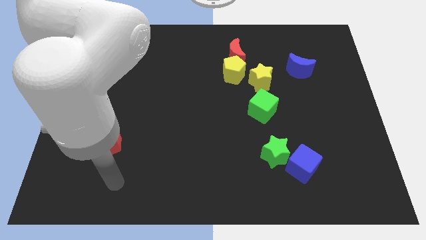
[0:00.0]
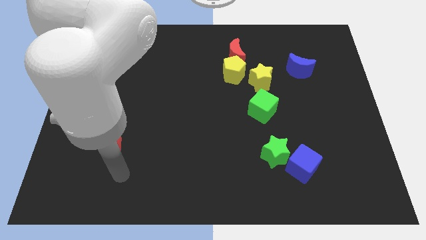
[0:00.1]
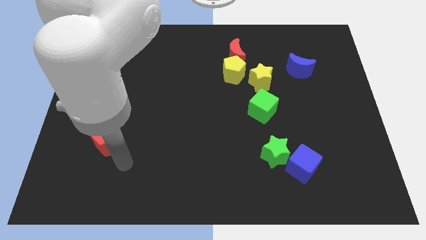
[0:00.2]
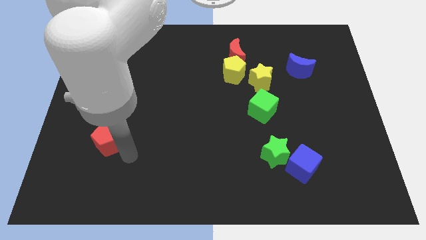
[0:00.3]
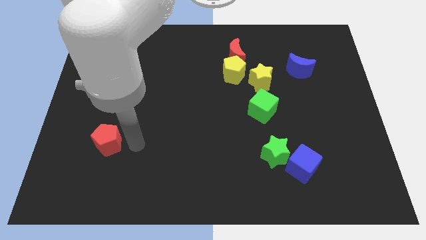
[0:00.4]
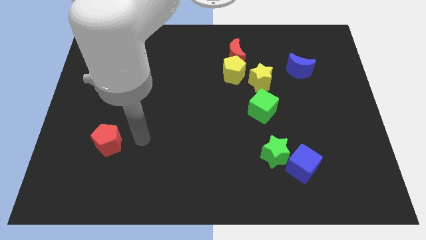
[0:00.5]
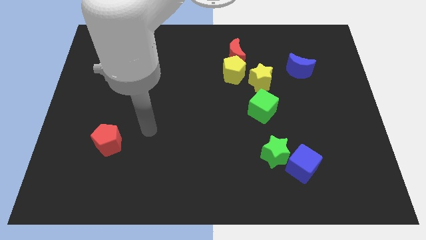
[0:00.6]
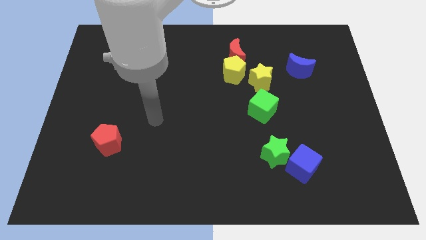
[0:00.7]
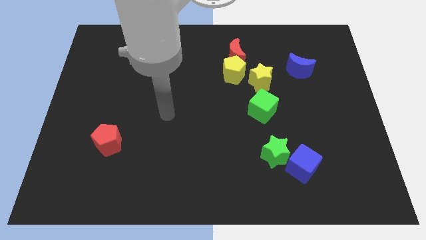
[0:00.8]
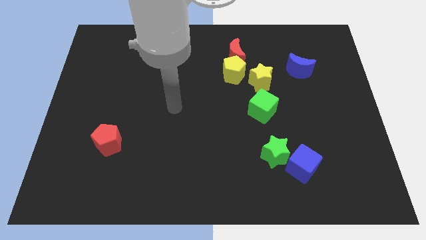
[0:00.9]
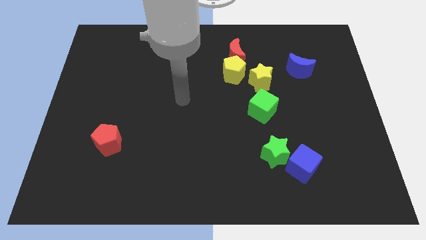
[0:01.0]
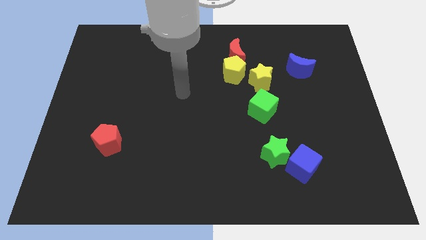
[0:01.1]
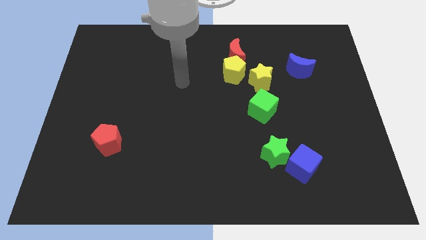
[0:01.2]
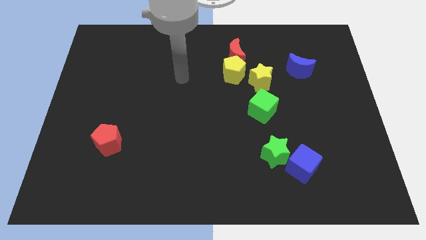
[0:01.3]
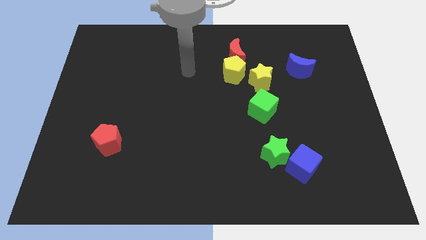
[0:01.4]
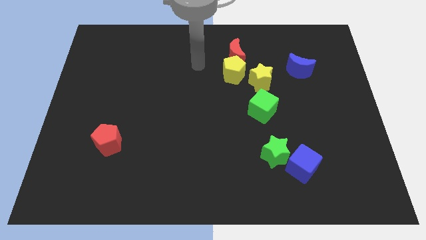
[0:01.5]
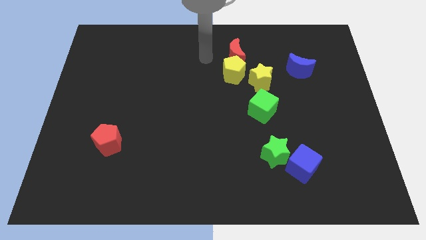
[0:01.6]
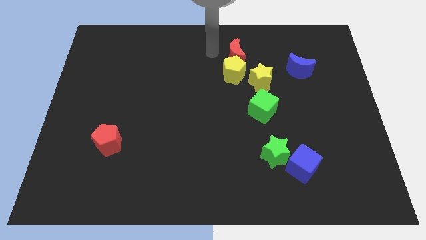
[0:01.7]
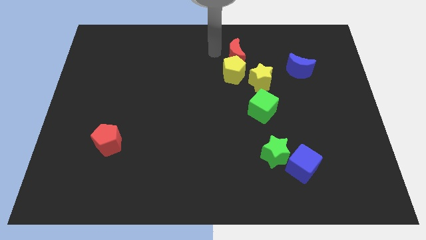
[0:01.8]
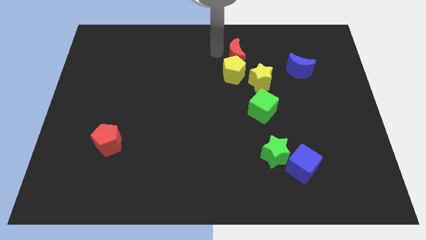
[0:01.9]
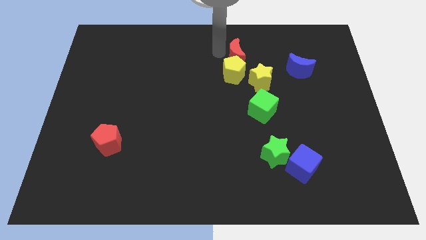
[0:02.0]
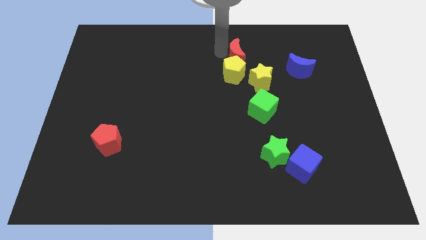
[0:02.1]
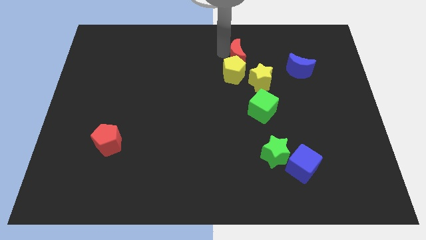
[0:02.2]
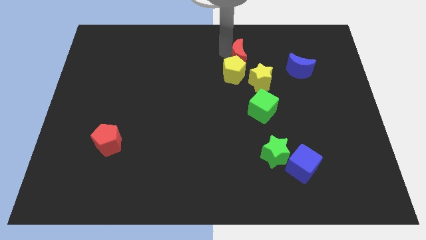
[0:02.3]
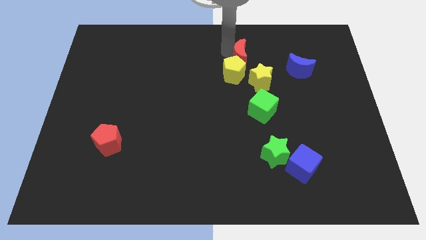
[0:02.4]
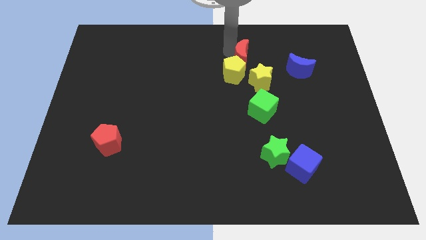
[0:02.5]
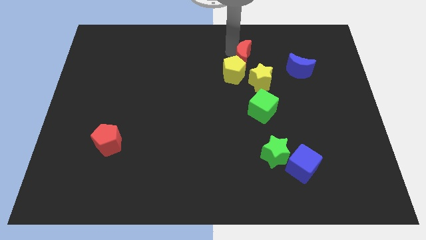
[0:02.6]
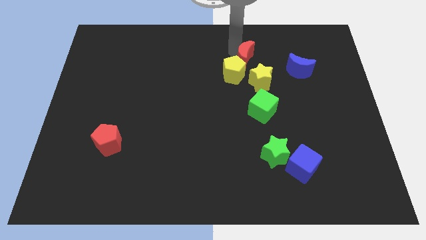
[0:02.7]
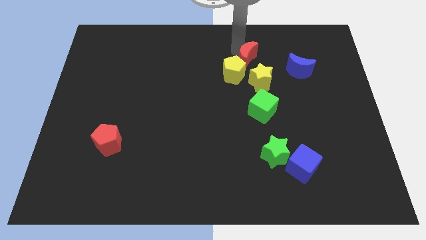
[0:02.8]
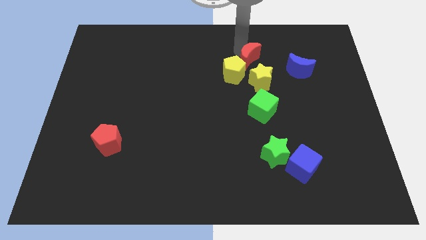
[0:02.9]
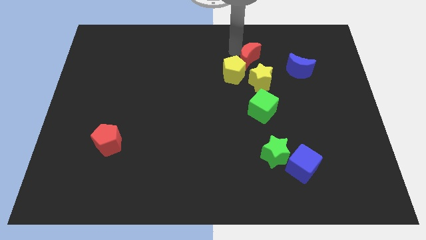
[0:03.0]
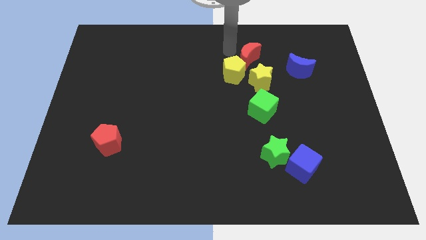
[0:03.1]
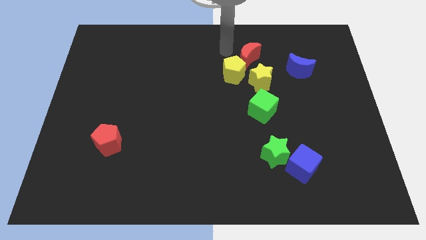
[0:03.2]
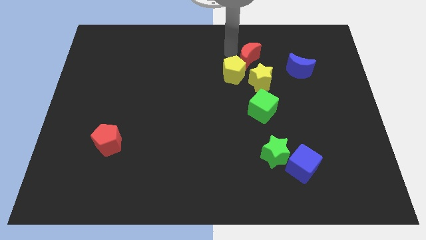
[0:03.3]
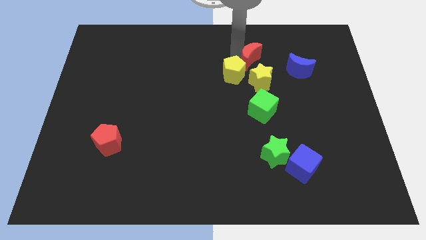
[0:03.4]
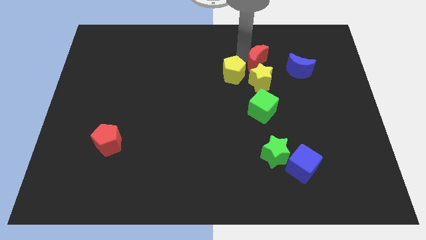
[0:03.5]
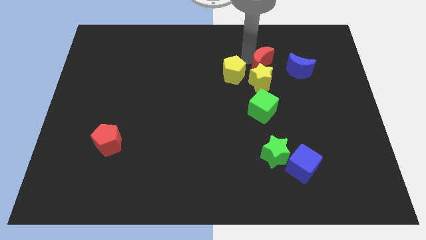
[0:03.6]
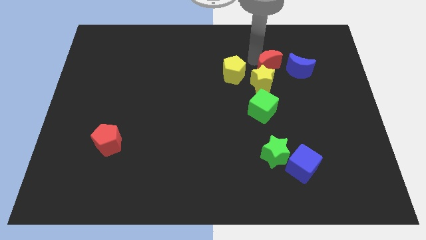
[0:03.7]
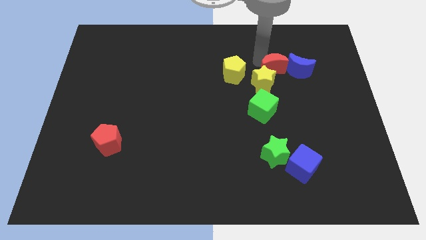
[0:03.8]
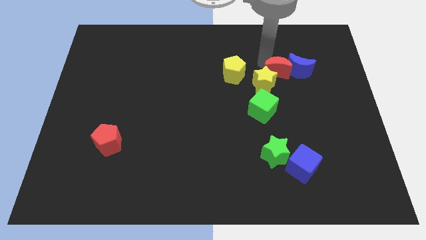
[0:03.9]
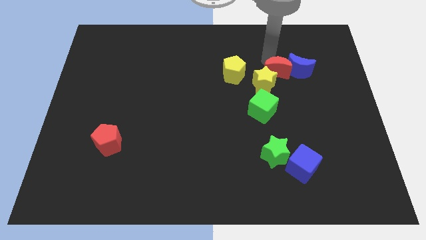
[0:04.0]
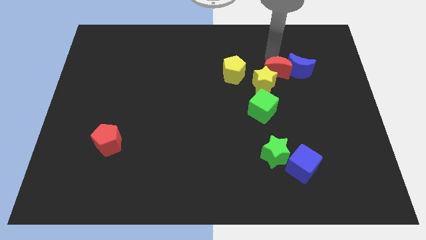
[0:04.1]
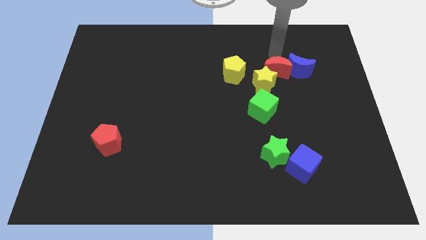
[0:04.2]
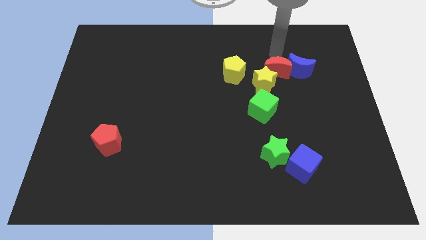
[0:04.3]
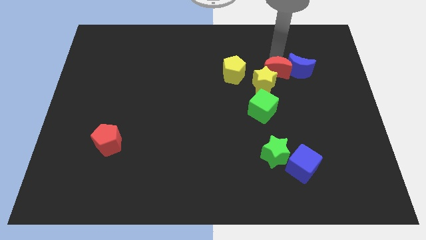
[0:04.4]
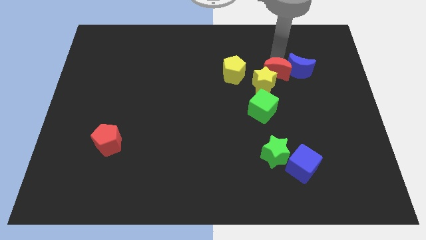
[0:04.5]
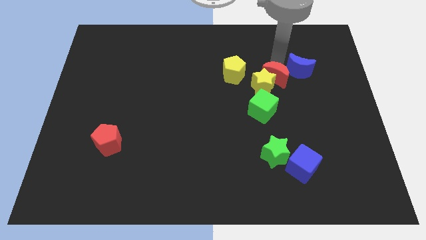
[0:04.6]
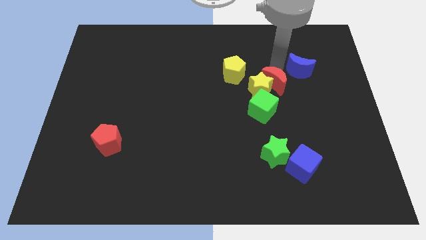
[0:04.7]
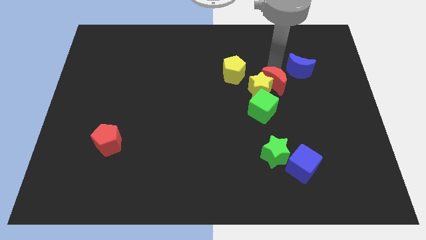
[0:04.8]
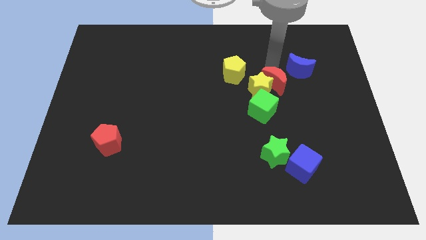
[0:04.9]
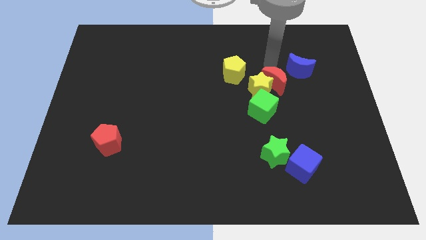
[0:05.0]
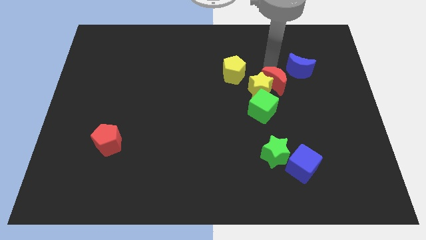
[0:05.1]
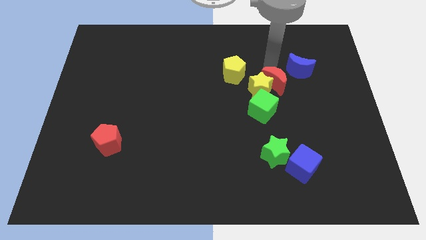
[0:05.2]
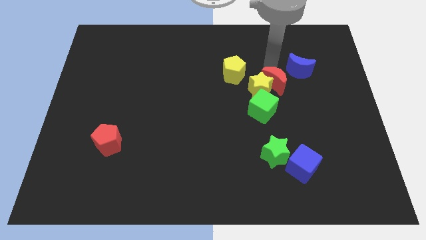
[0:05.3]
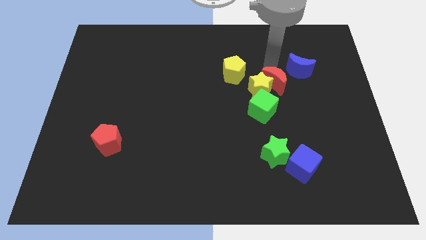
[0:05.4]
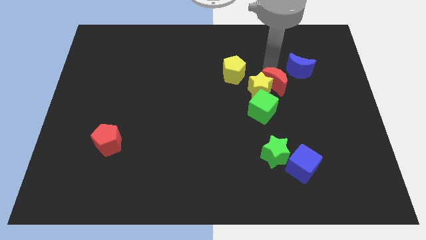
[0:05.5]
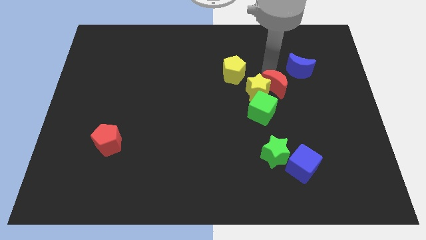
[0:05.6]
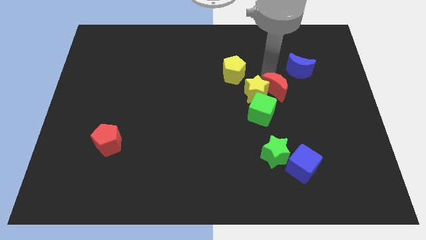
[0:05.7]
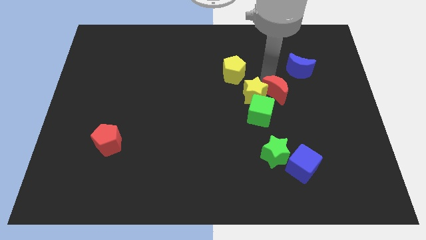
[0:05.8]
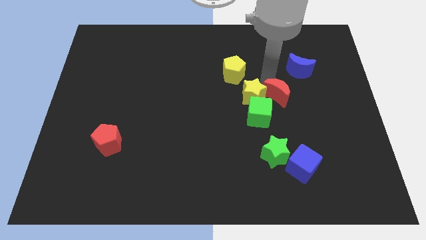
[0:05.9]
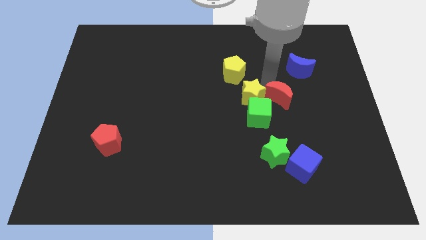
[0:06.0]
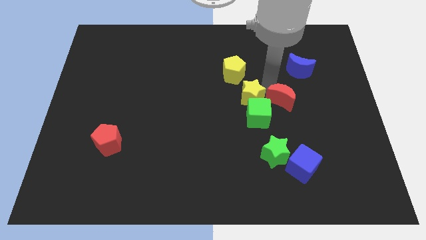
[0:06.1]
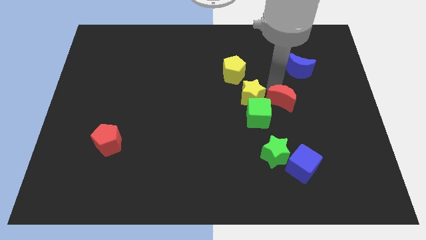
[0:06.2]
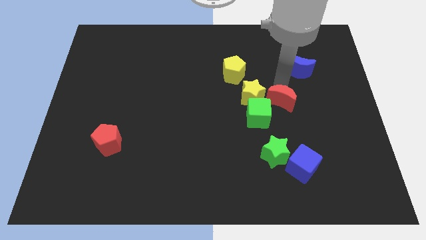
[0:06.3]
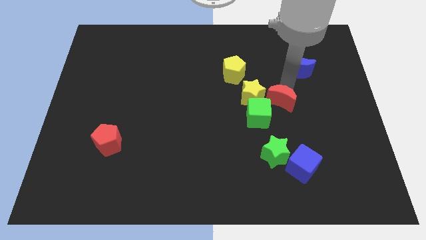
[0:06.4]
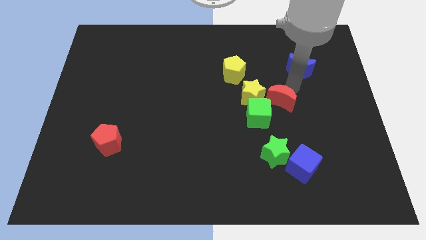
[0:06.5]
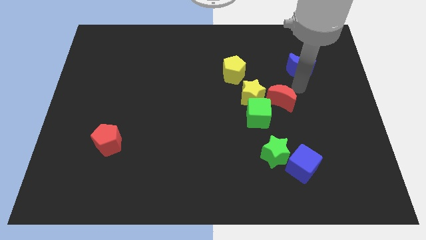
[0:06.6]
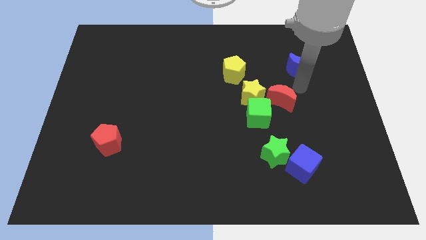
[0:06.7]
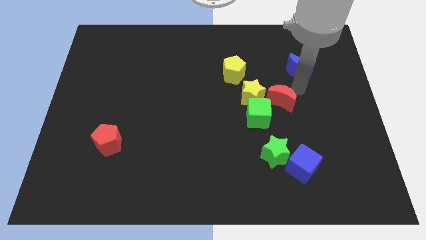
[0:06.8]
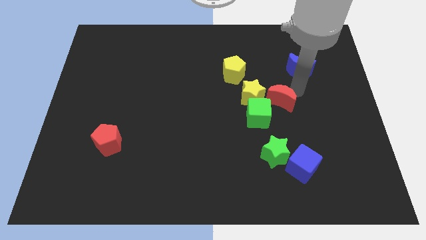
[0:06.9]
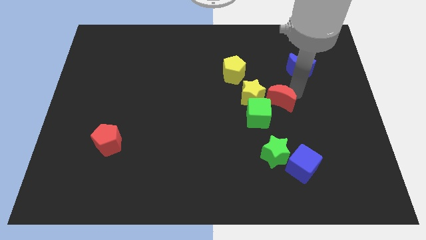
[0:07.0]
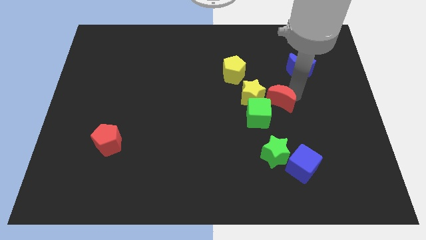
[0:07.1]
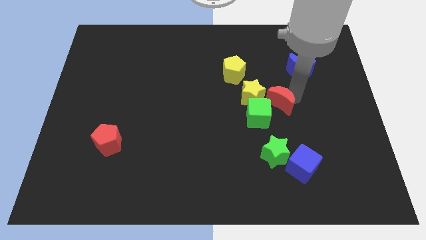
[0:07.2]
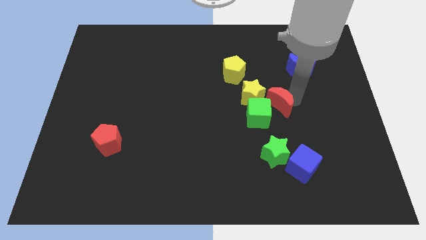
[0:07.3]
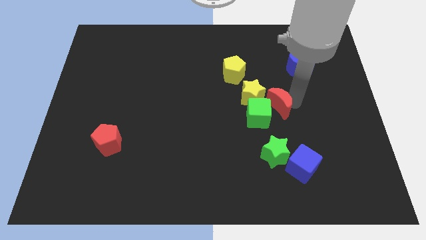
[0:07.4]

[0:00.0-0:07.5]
slide the red moon close to the green cube
